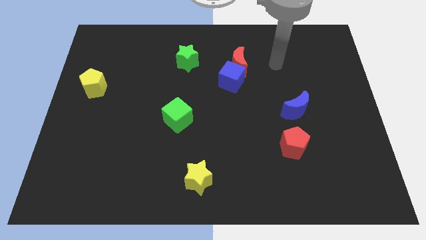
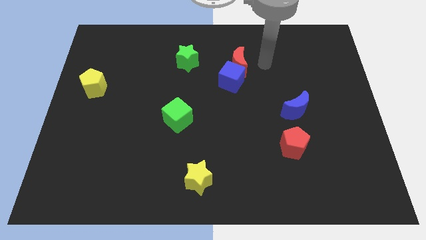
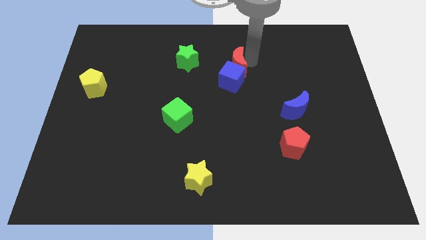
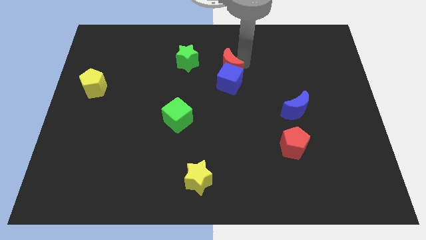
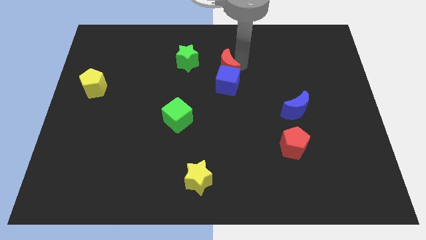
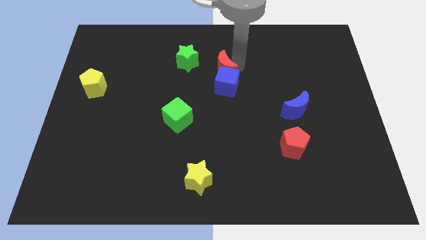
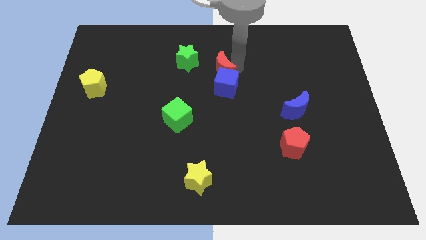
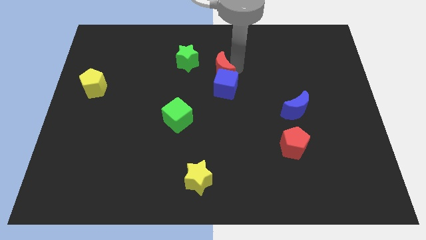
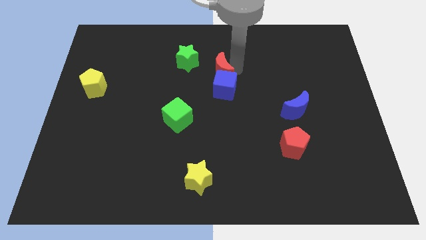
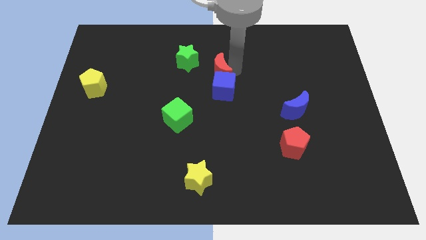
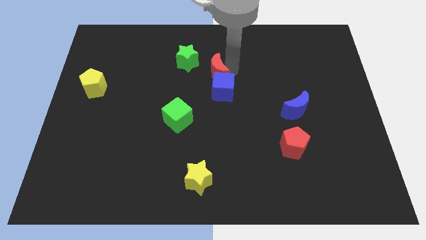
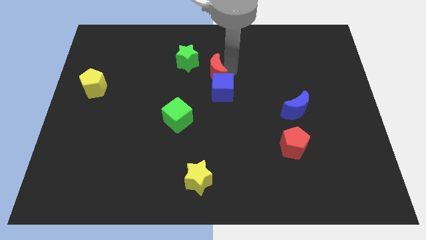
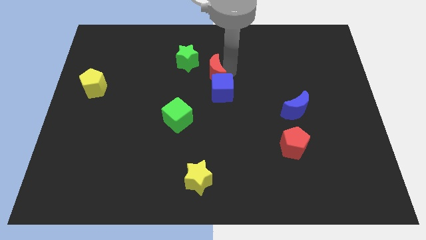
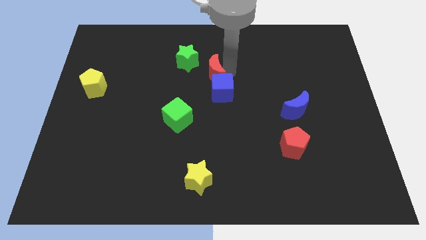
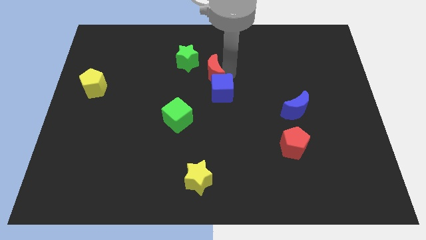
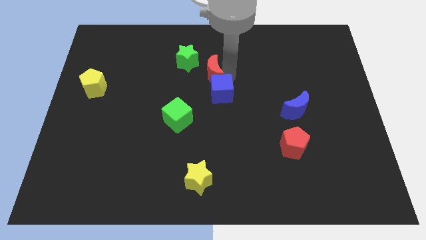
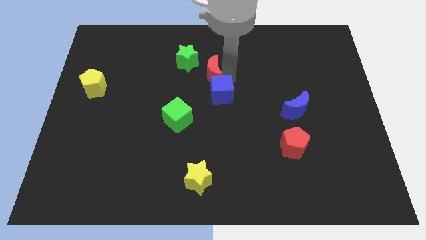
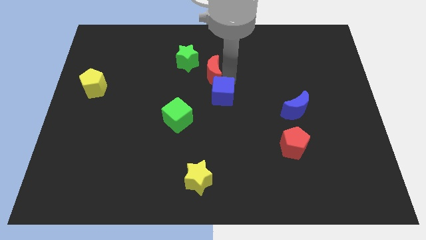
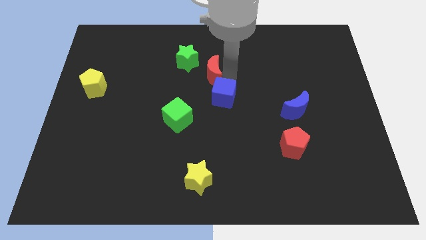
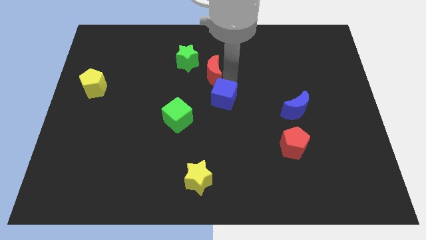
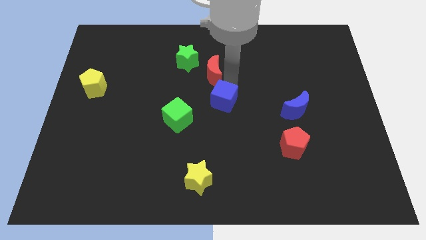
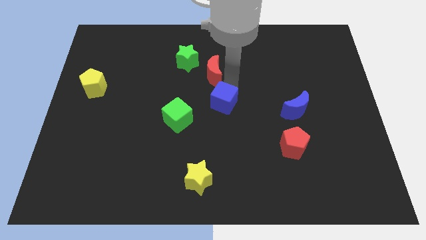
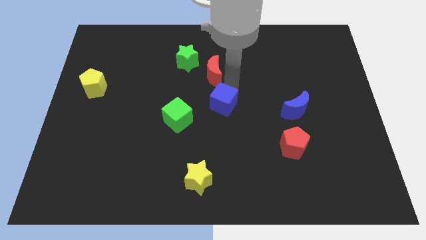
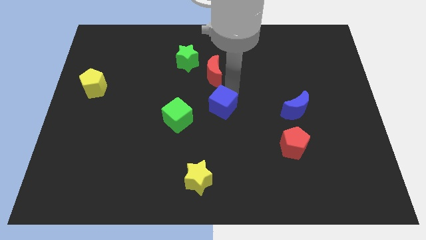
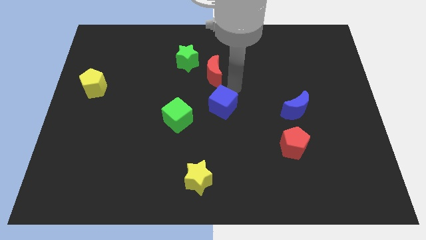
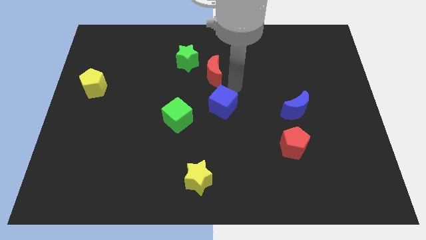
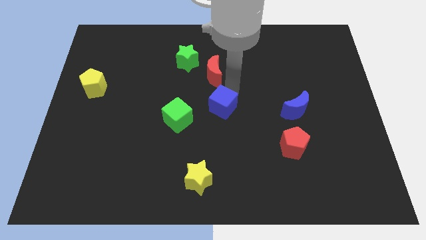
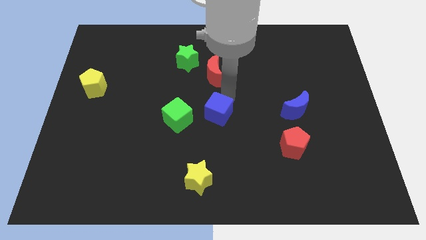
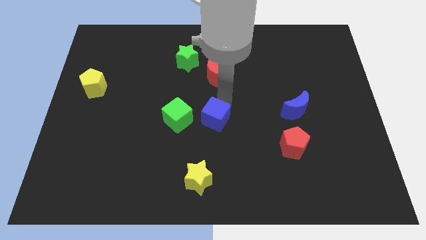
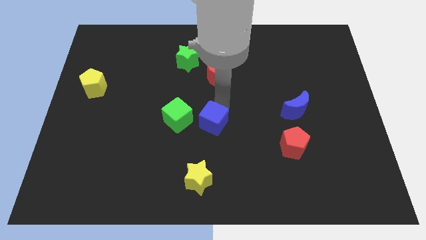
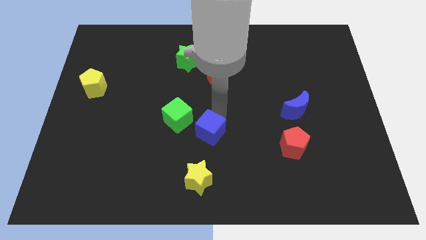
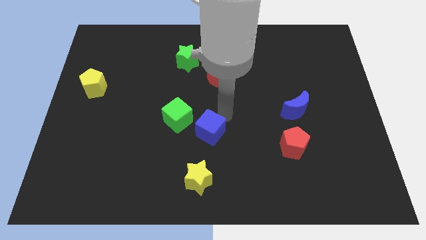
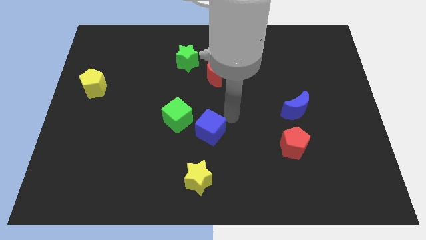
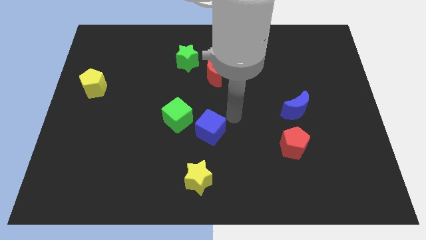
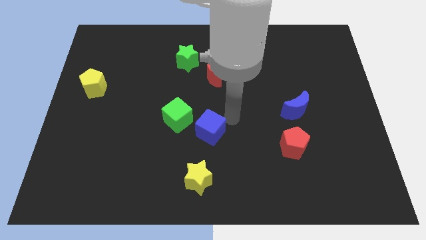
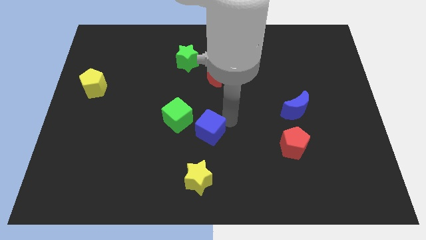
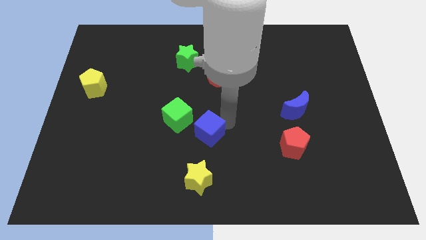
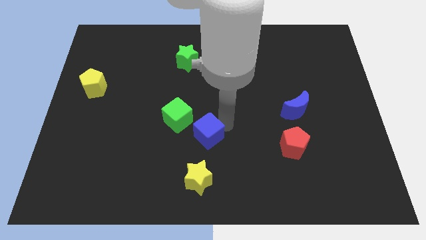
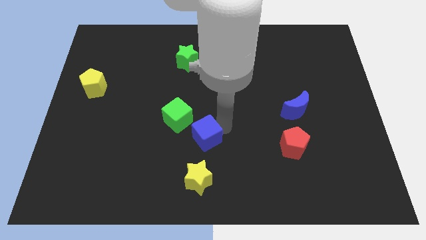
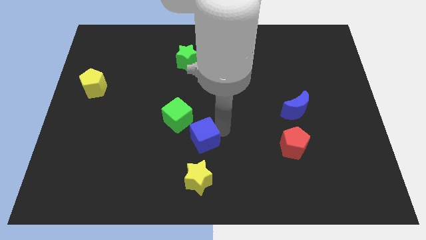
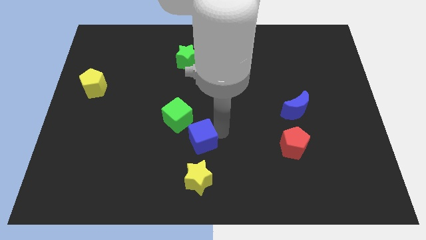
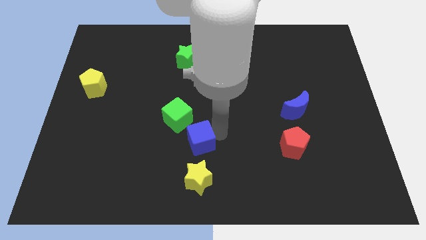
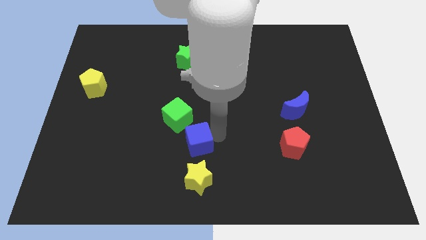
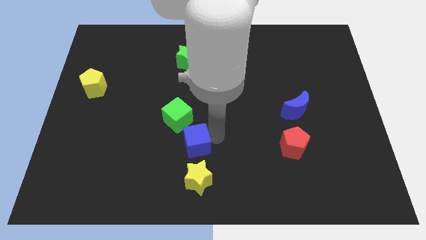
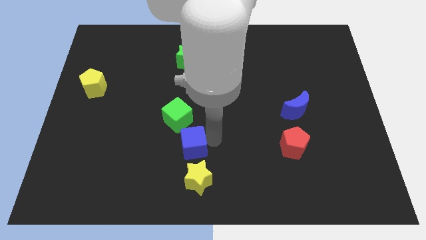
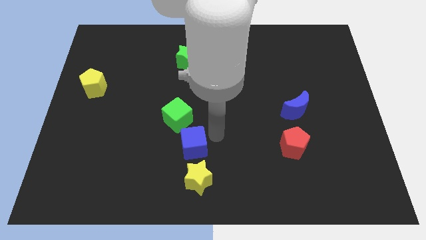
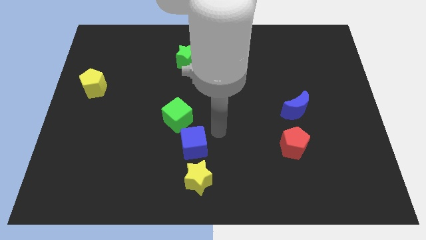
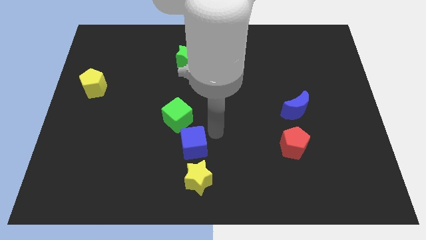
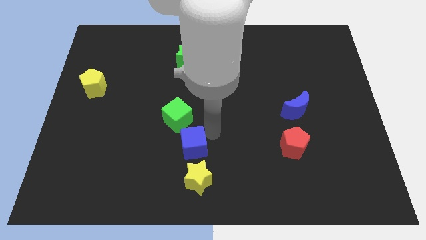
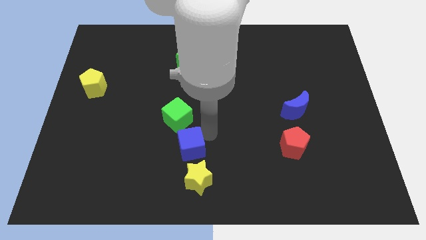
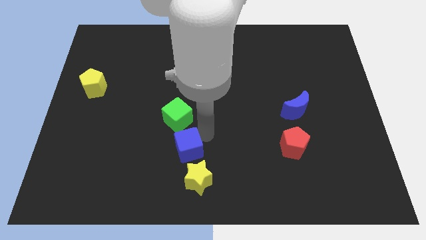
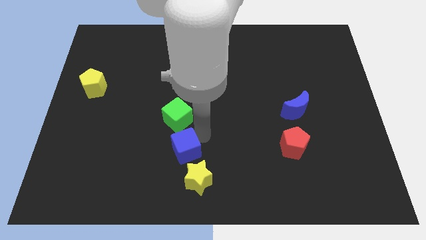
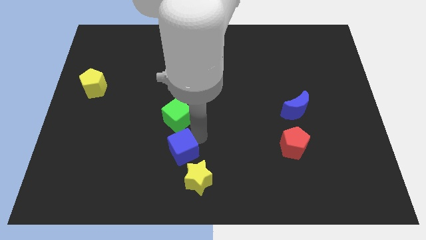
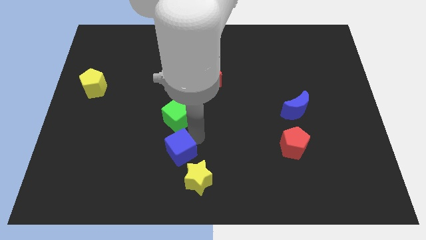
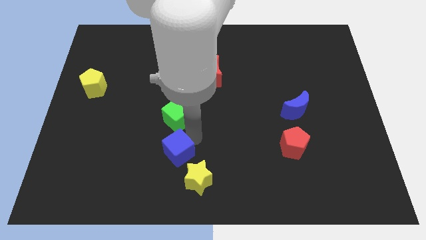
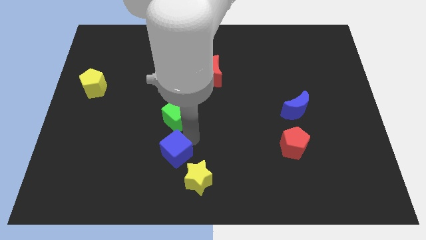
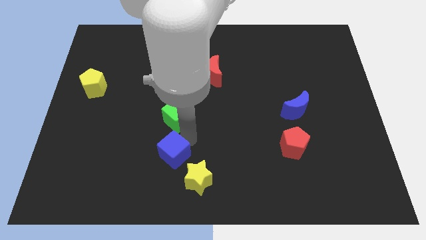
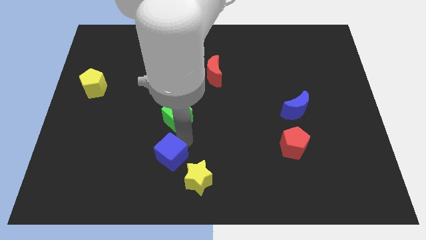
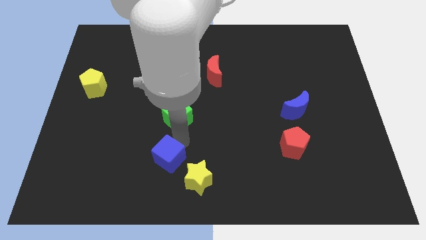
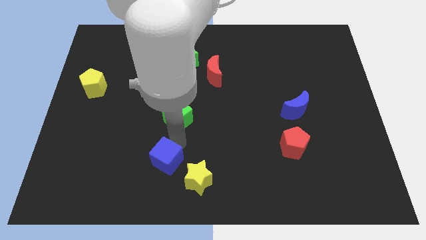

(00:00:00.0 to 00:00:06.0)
slide the blue cube to the left of the yellow star

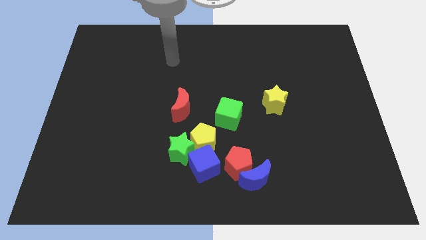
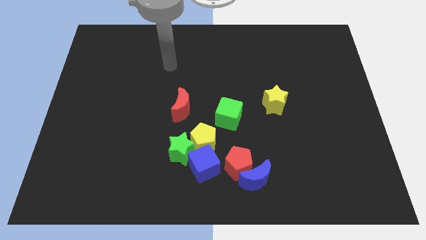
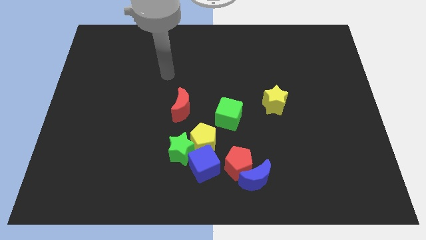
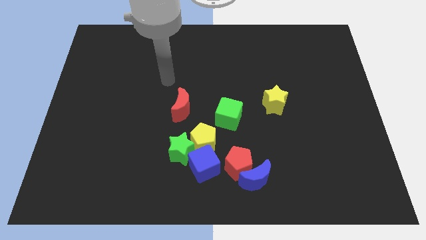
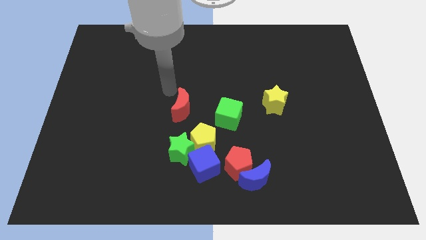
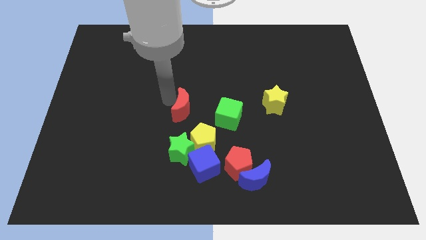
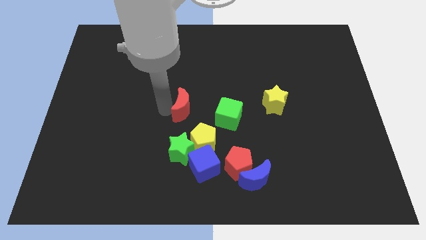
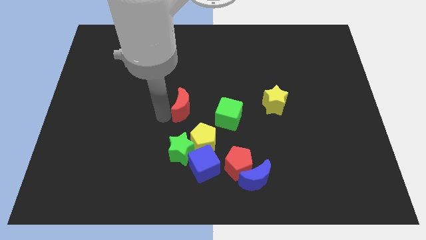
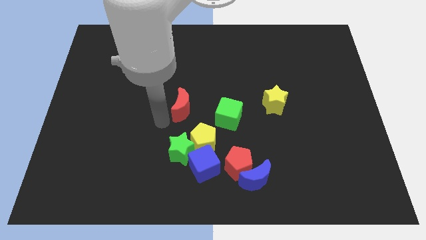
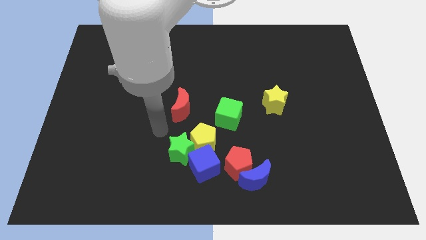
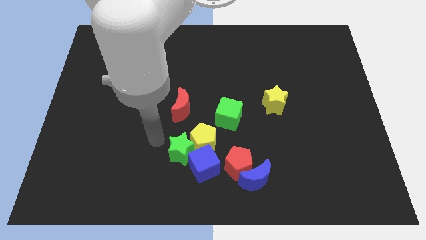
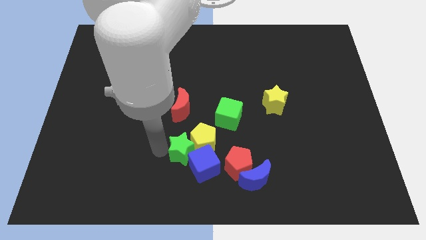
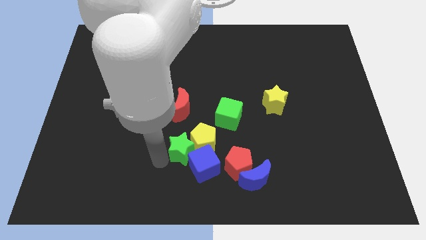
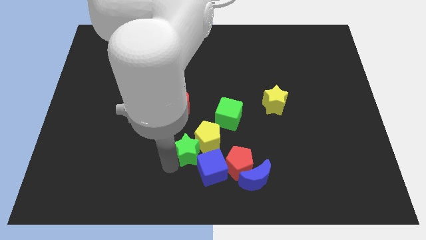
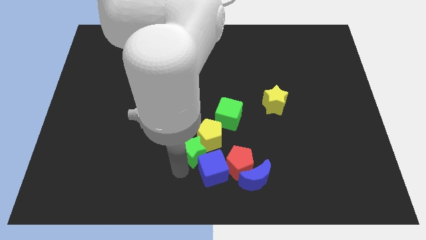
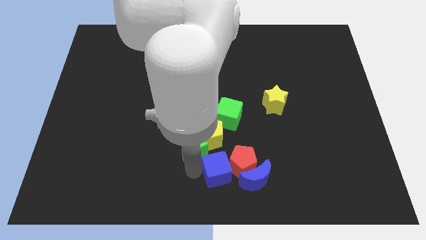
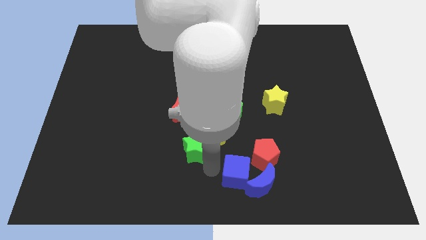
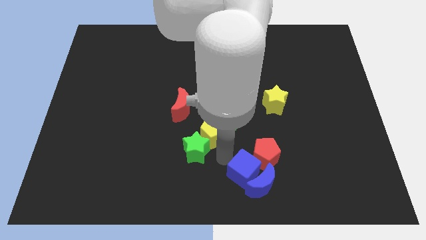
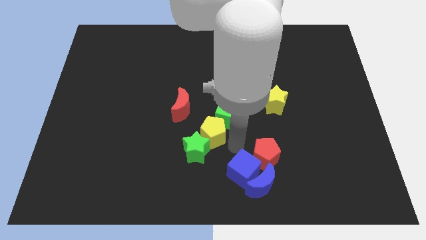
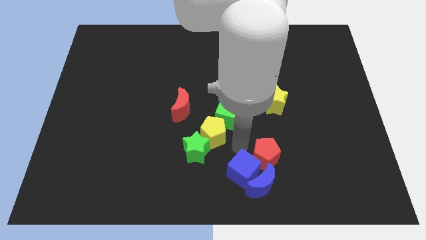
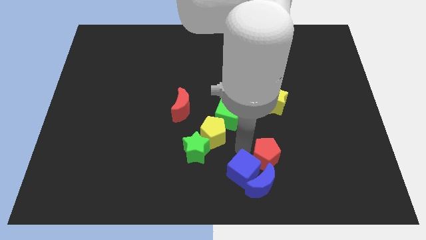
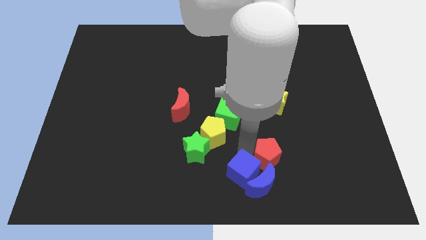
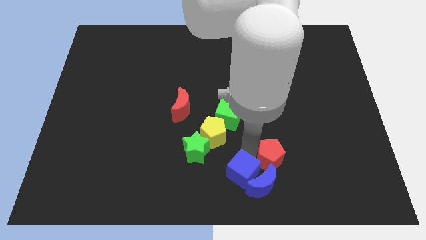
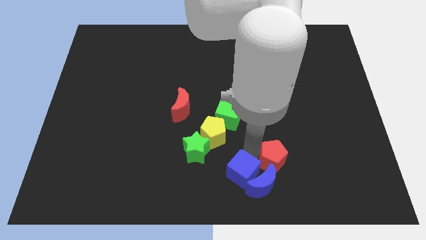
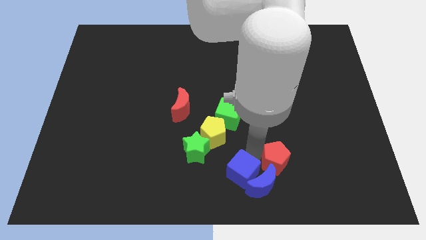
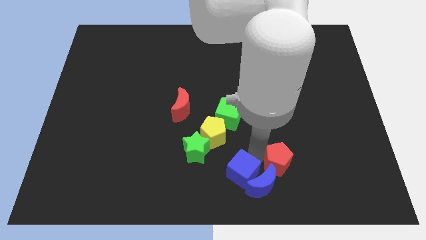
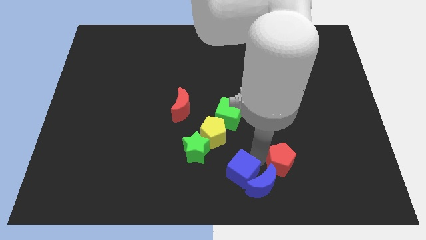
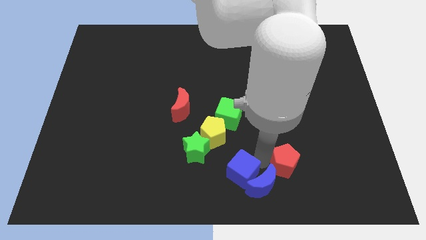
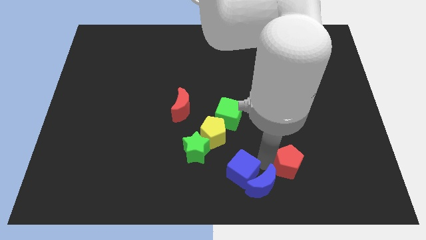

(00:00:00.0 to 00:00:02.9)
slide the red pentagon right of the blue moon
